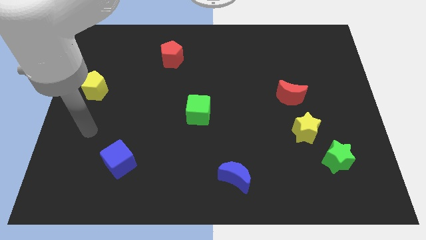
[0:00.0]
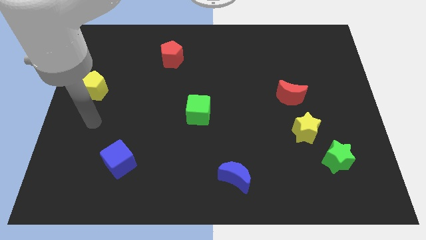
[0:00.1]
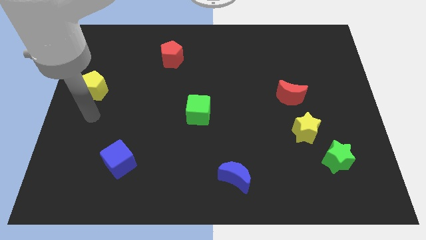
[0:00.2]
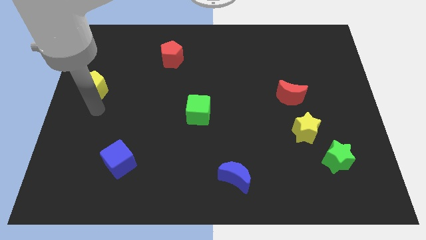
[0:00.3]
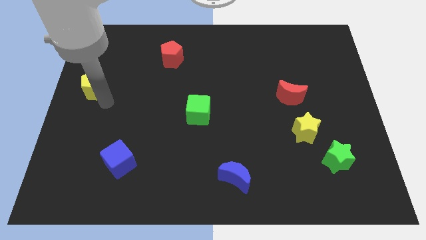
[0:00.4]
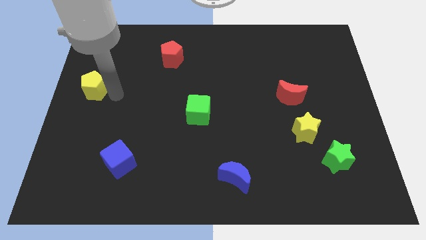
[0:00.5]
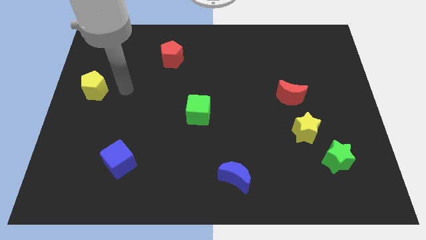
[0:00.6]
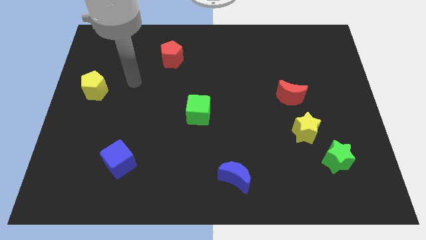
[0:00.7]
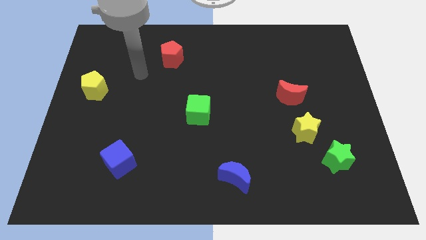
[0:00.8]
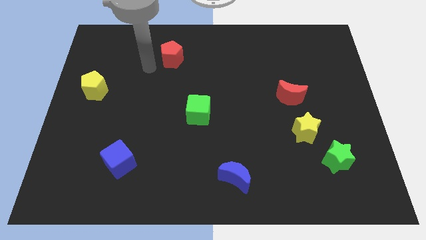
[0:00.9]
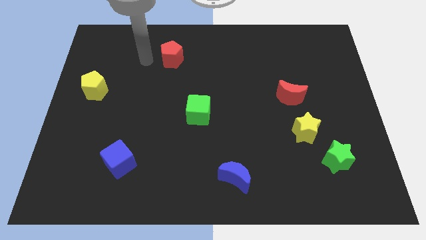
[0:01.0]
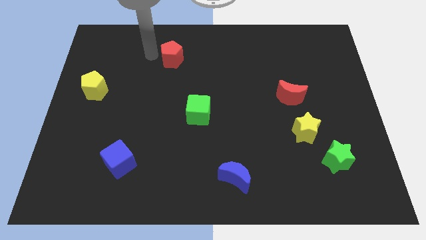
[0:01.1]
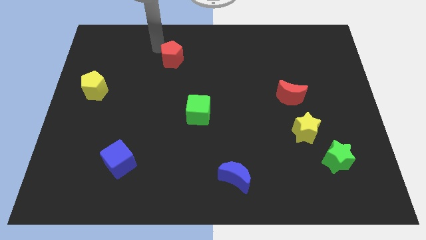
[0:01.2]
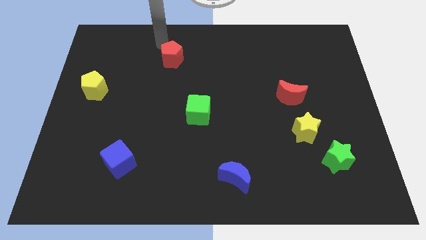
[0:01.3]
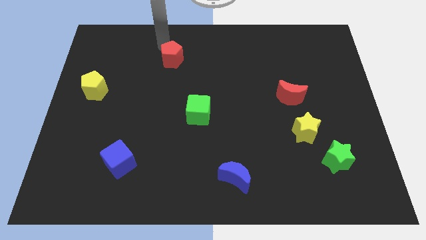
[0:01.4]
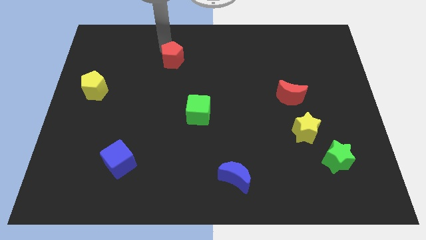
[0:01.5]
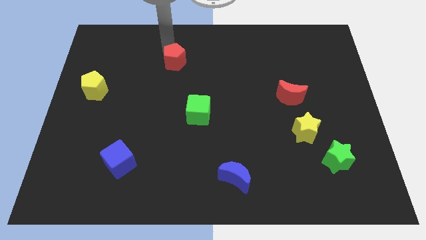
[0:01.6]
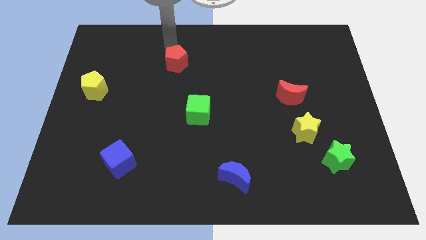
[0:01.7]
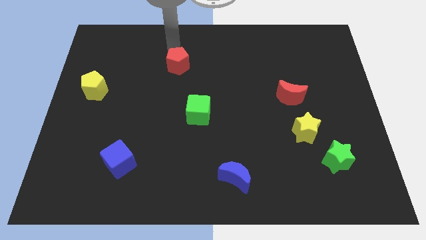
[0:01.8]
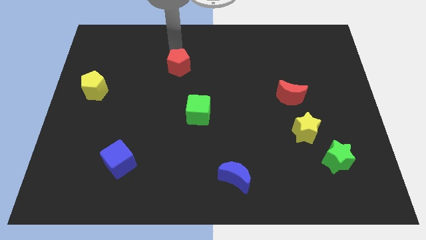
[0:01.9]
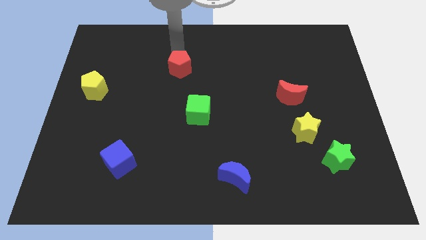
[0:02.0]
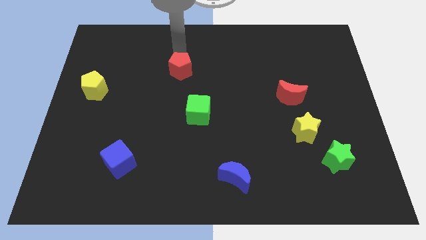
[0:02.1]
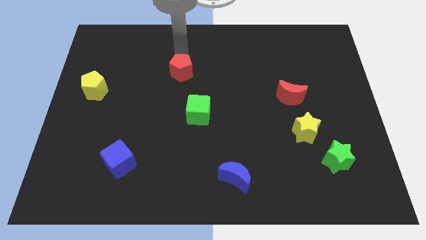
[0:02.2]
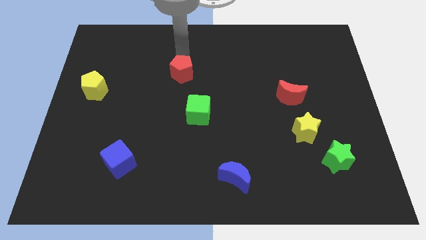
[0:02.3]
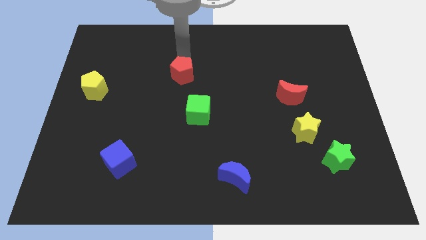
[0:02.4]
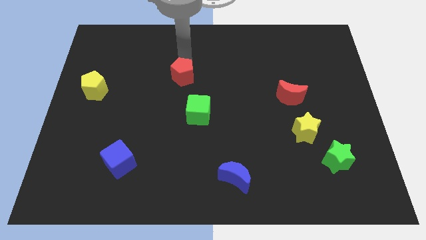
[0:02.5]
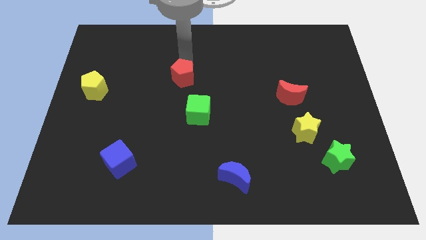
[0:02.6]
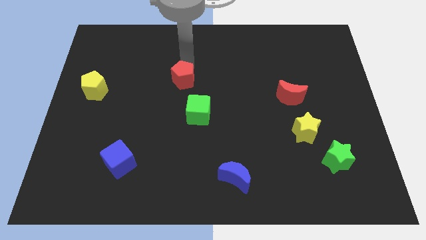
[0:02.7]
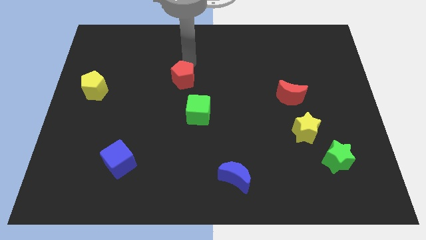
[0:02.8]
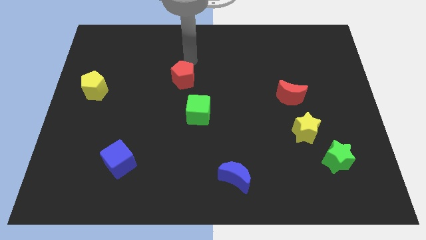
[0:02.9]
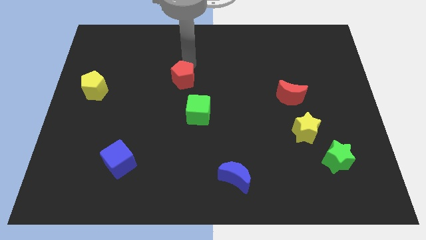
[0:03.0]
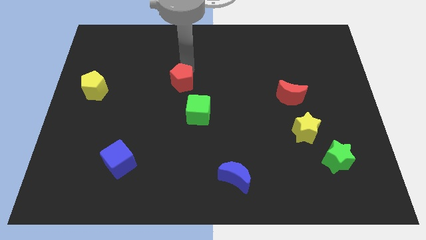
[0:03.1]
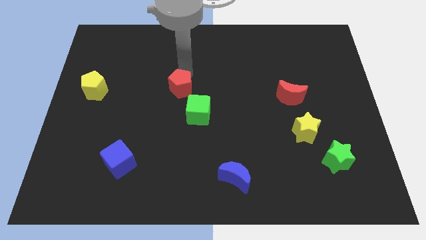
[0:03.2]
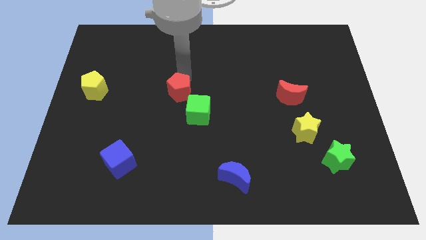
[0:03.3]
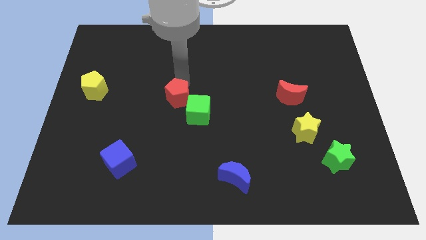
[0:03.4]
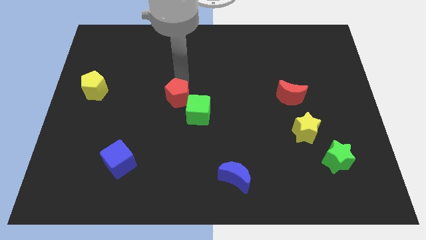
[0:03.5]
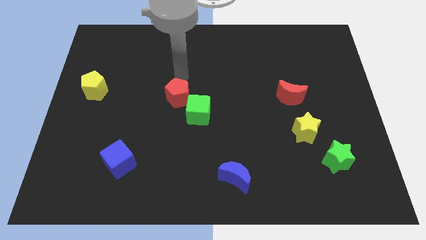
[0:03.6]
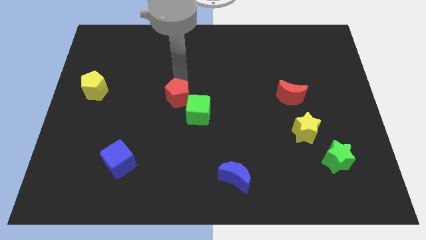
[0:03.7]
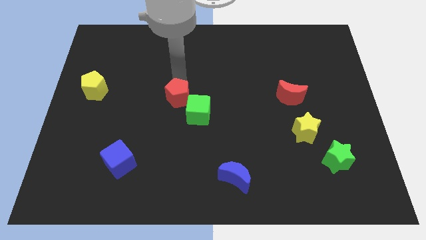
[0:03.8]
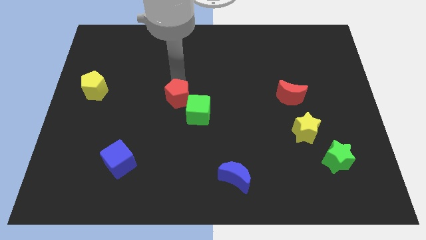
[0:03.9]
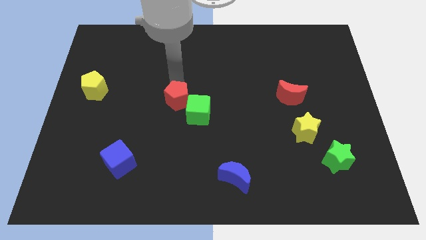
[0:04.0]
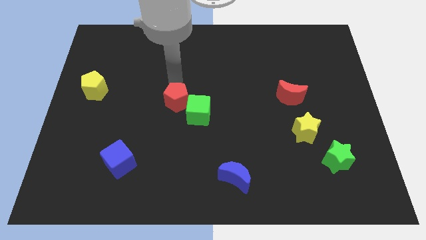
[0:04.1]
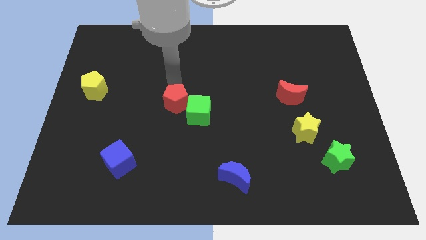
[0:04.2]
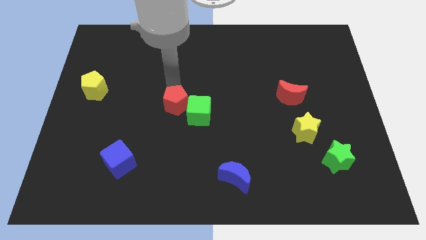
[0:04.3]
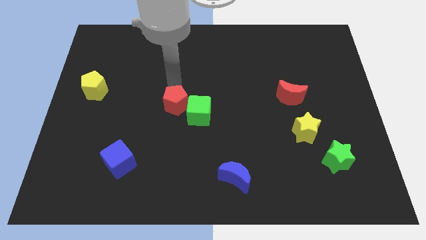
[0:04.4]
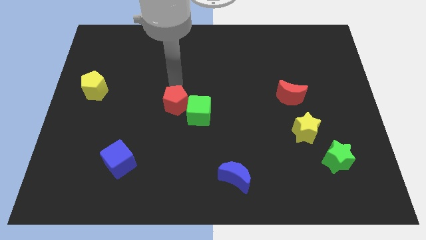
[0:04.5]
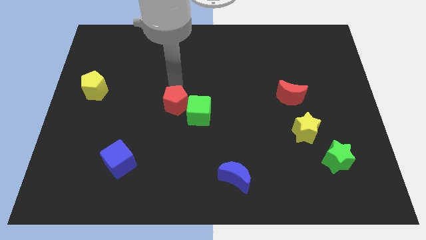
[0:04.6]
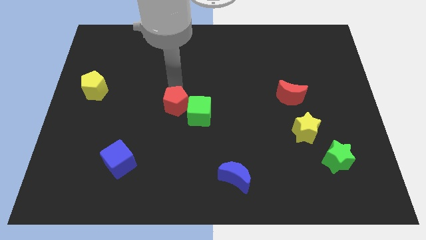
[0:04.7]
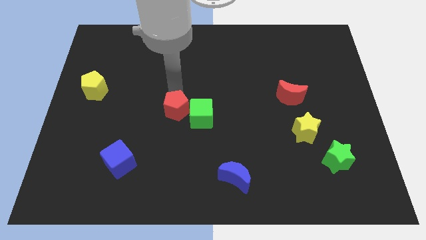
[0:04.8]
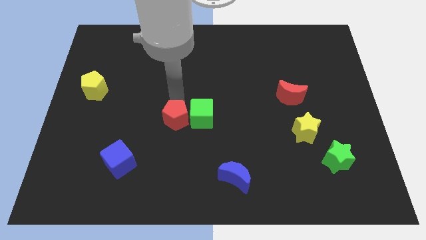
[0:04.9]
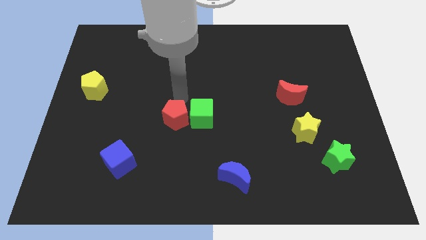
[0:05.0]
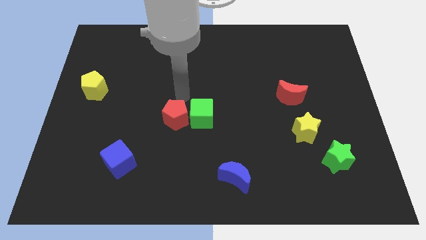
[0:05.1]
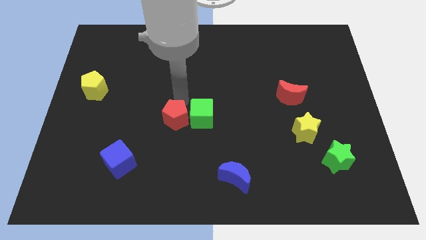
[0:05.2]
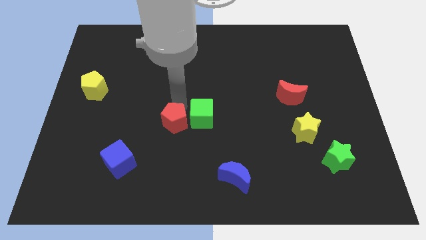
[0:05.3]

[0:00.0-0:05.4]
slide the red pentagon down

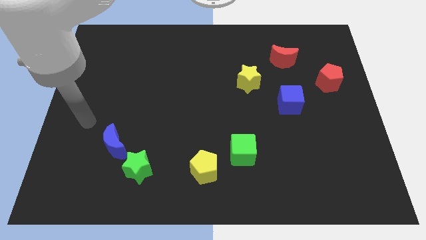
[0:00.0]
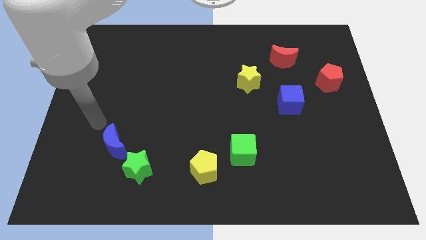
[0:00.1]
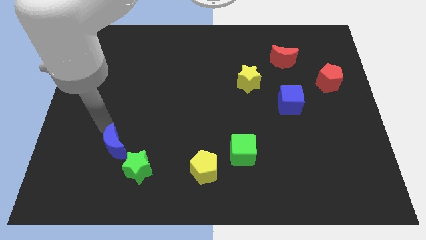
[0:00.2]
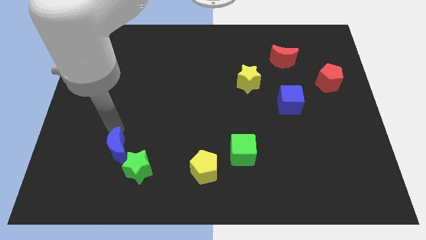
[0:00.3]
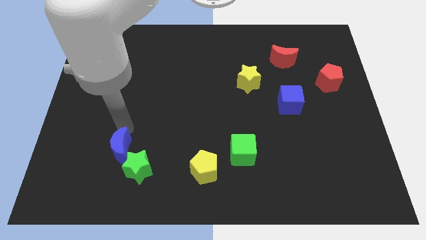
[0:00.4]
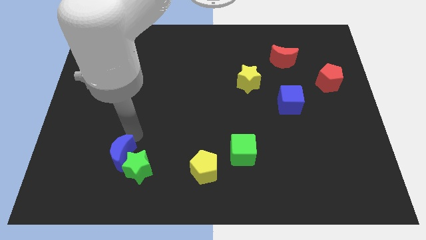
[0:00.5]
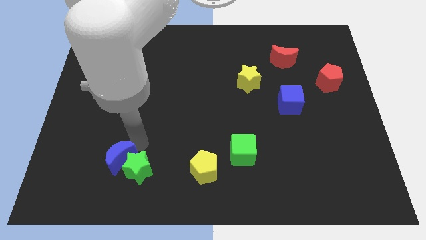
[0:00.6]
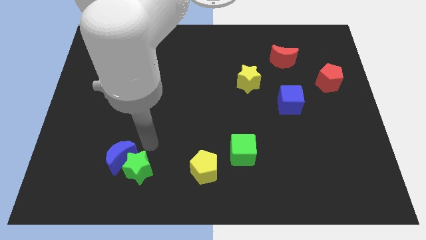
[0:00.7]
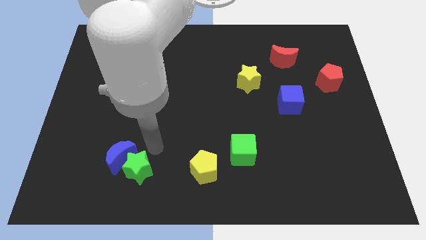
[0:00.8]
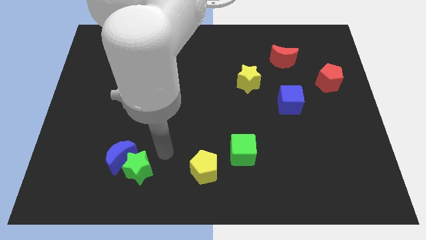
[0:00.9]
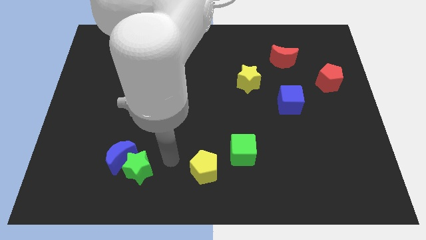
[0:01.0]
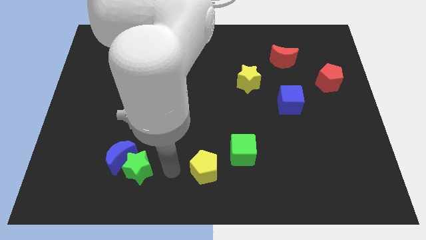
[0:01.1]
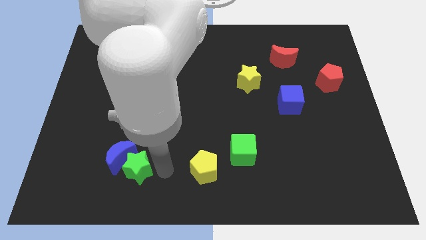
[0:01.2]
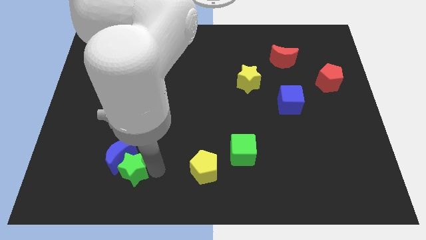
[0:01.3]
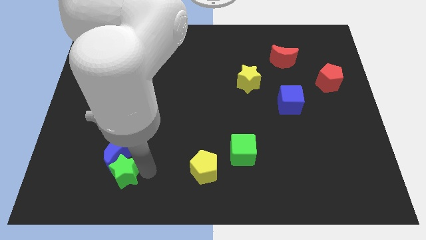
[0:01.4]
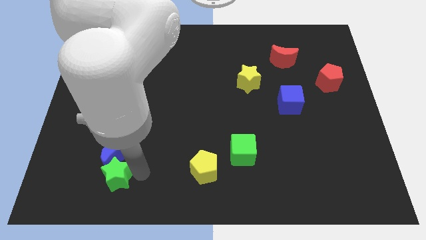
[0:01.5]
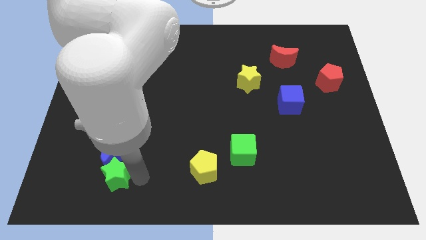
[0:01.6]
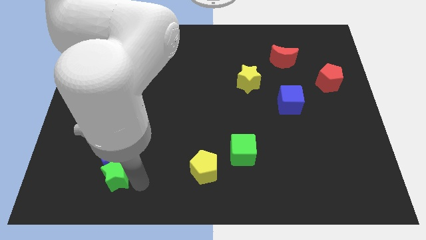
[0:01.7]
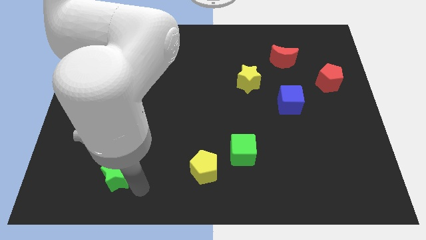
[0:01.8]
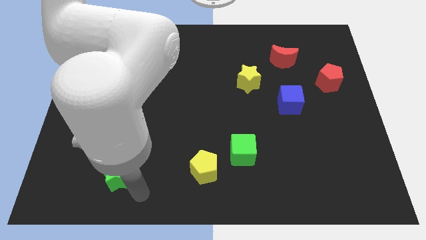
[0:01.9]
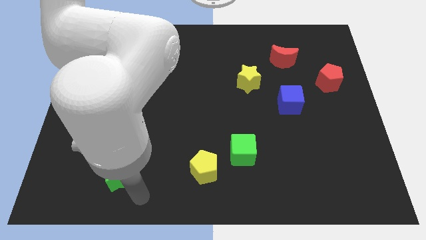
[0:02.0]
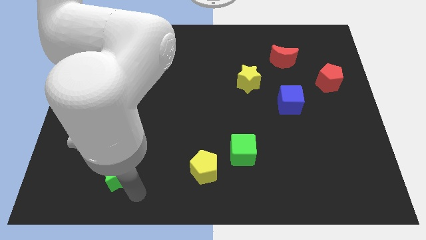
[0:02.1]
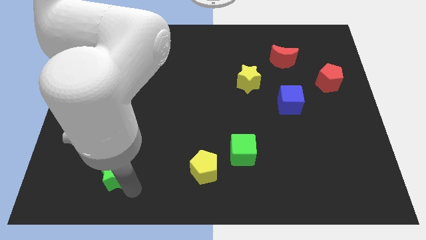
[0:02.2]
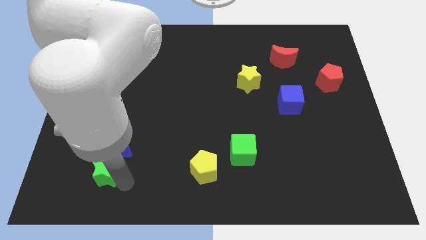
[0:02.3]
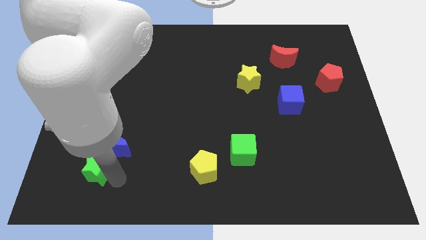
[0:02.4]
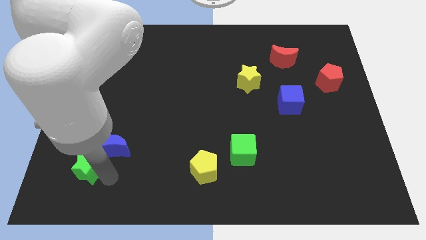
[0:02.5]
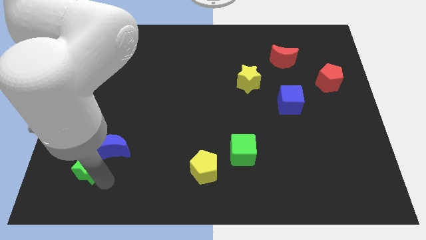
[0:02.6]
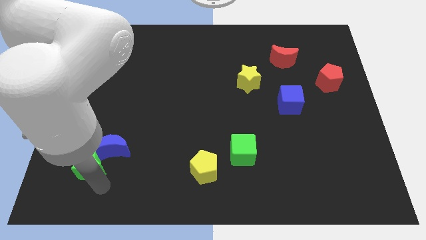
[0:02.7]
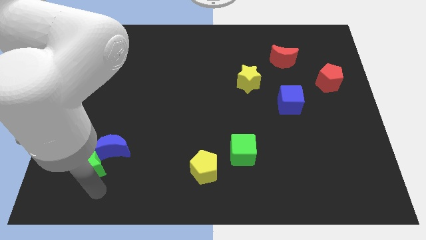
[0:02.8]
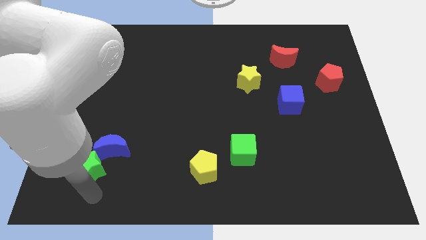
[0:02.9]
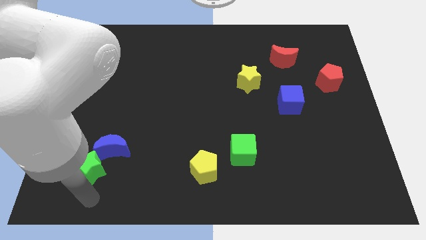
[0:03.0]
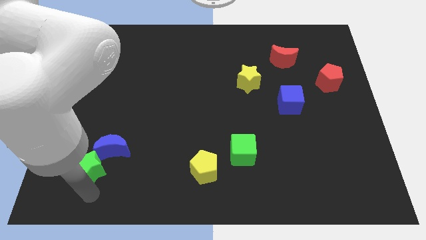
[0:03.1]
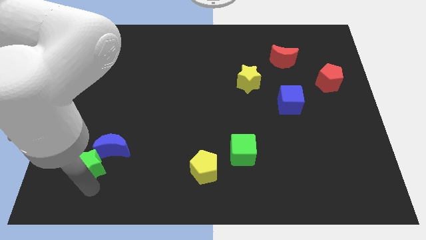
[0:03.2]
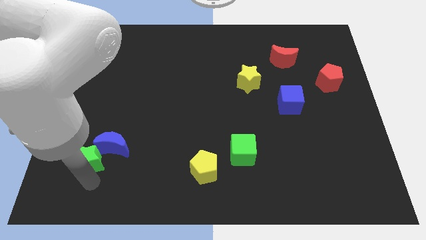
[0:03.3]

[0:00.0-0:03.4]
slightly move the green star upwards and to the left diagonally
